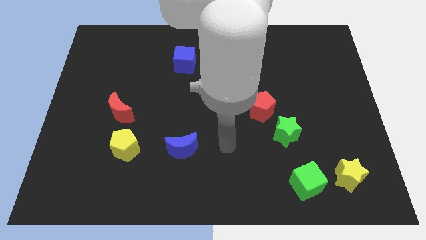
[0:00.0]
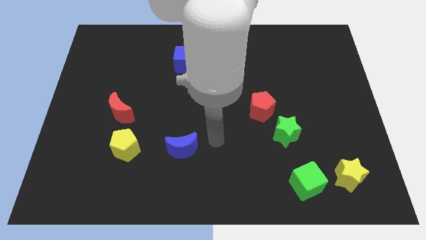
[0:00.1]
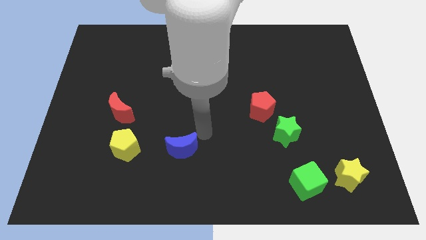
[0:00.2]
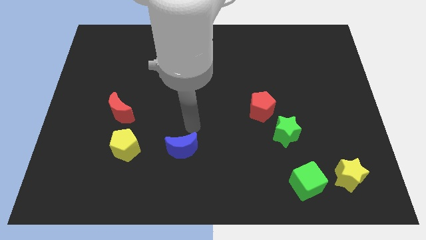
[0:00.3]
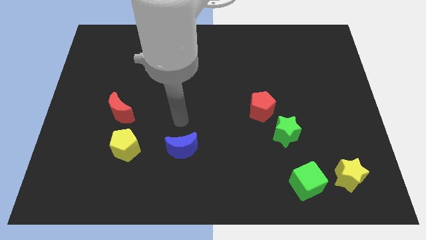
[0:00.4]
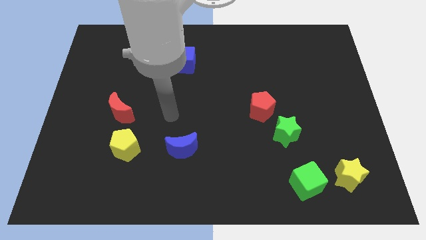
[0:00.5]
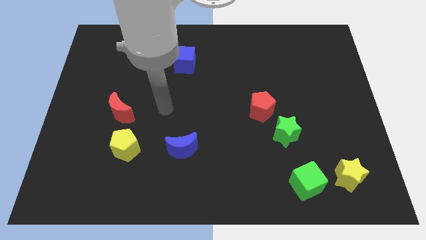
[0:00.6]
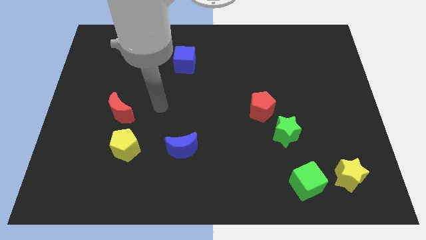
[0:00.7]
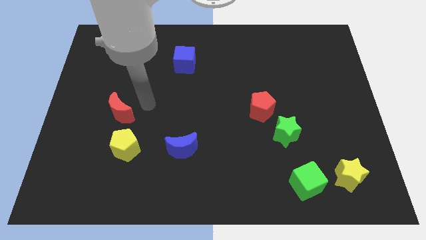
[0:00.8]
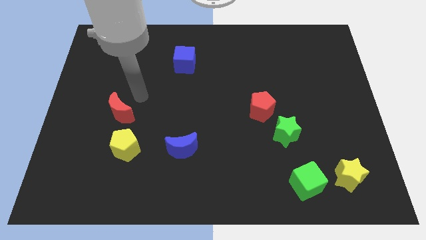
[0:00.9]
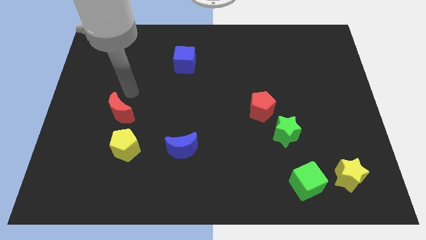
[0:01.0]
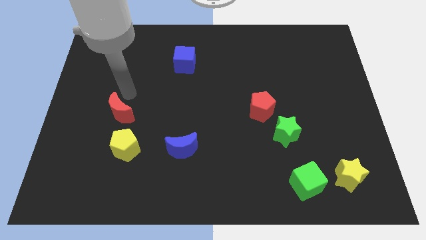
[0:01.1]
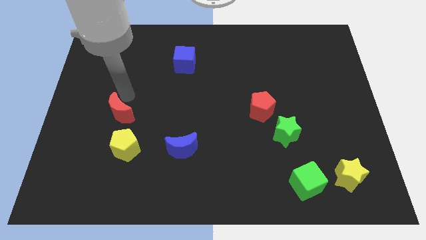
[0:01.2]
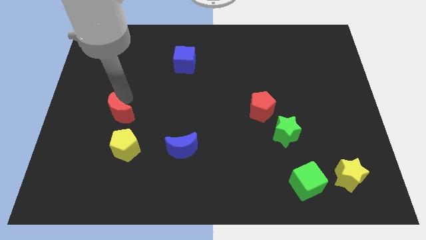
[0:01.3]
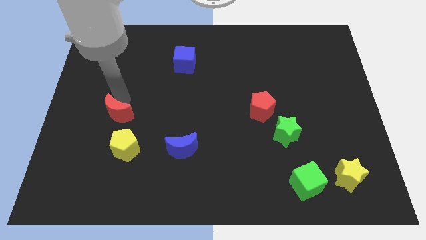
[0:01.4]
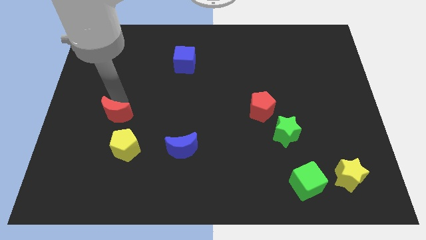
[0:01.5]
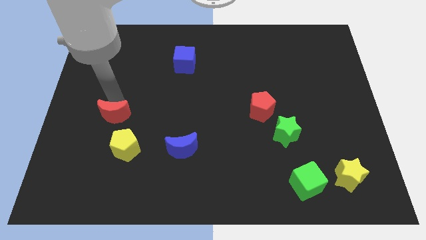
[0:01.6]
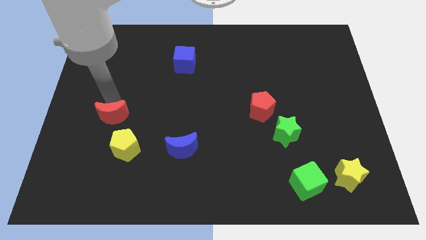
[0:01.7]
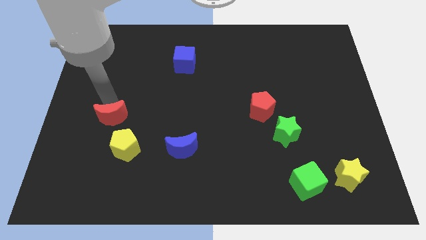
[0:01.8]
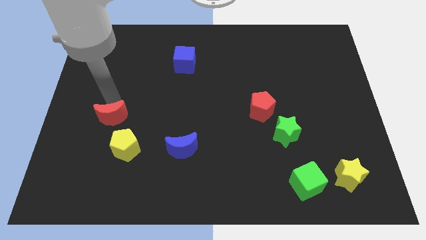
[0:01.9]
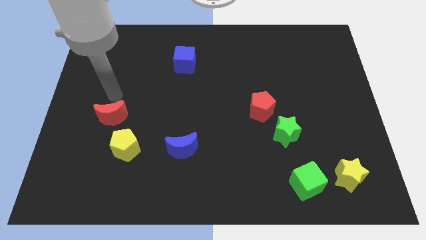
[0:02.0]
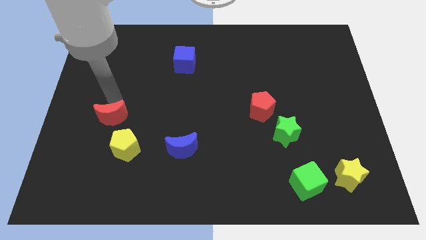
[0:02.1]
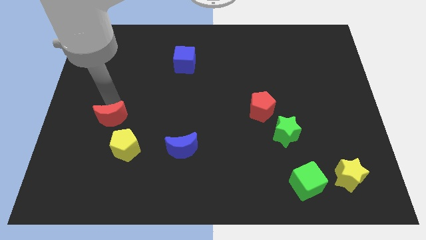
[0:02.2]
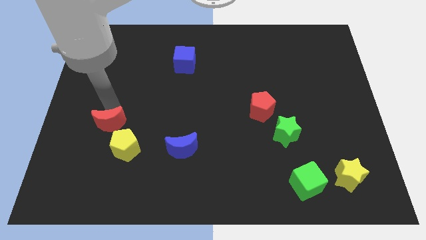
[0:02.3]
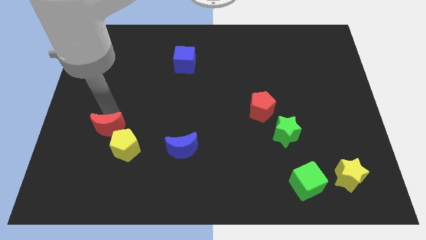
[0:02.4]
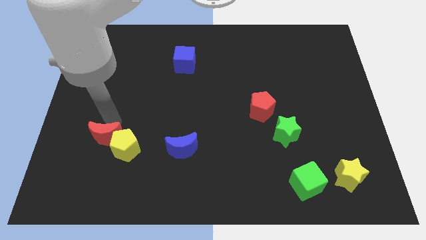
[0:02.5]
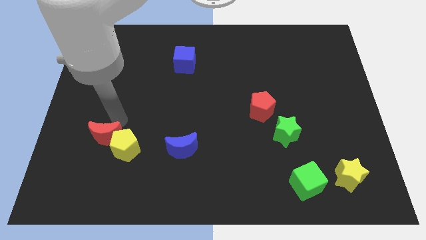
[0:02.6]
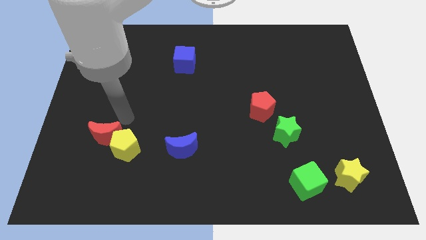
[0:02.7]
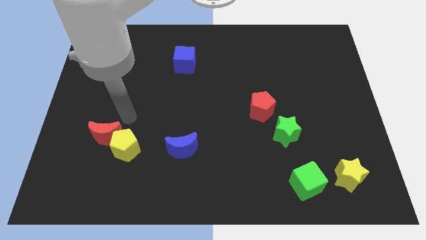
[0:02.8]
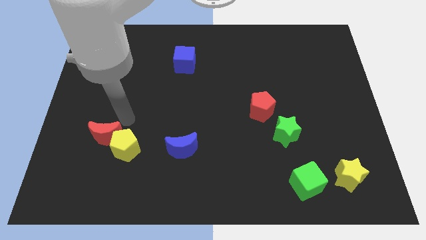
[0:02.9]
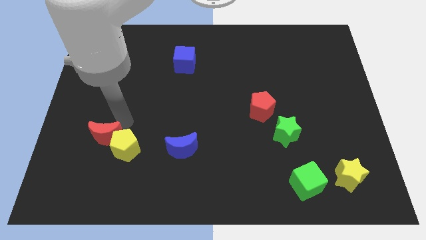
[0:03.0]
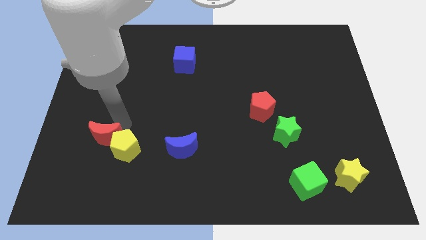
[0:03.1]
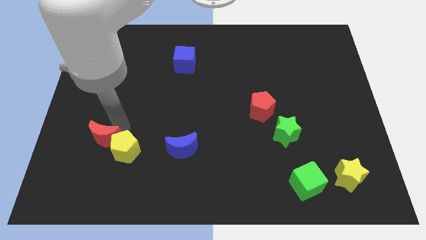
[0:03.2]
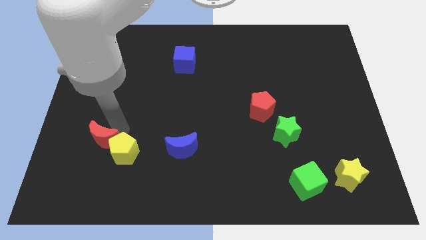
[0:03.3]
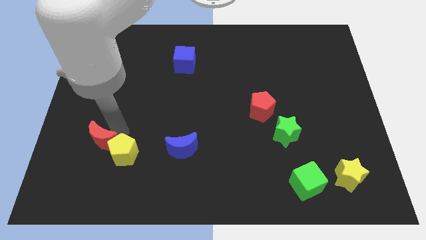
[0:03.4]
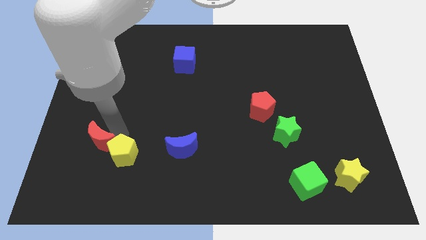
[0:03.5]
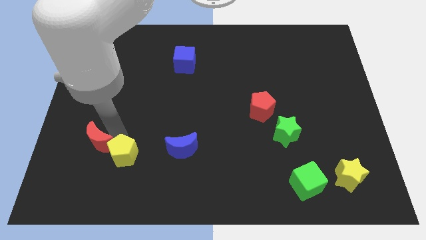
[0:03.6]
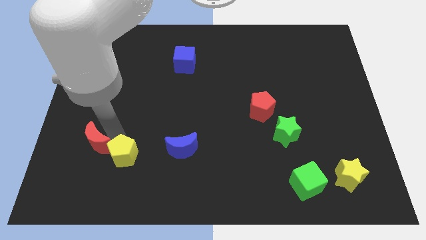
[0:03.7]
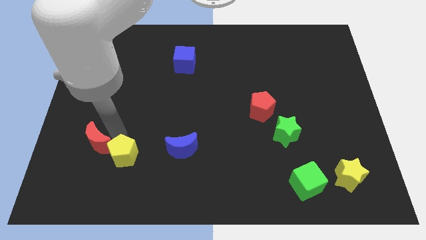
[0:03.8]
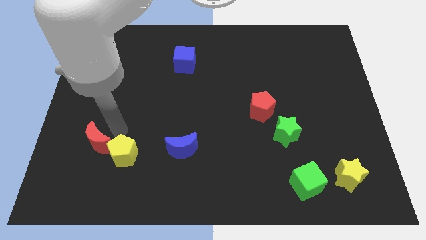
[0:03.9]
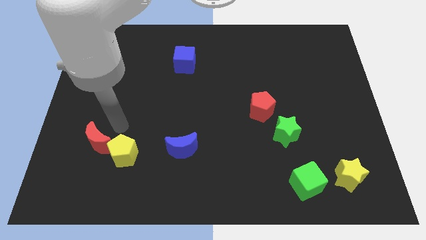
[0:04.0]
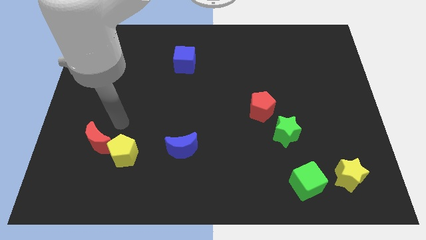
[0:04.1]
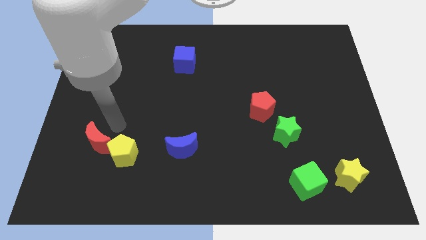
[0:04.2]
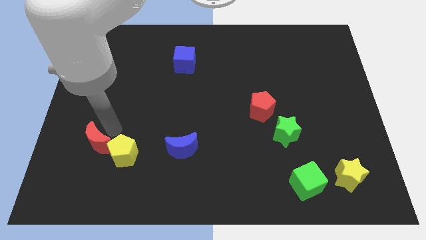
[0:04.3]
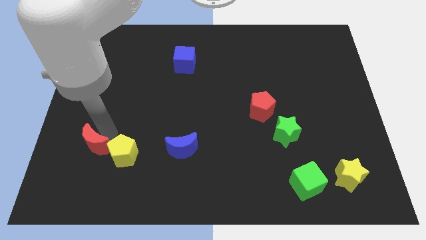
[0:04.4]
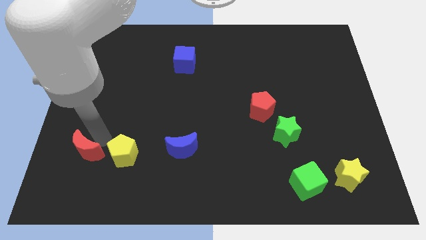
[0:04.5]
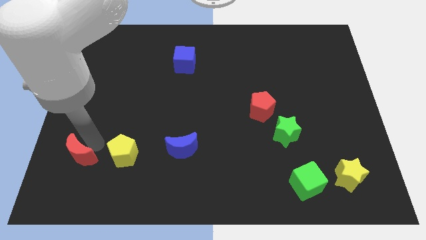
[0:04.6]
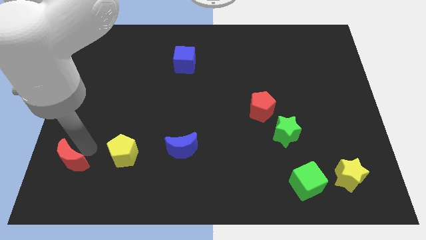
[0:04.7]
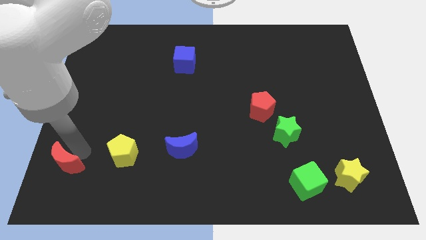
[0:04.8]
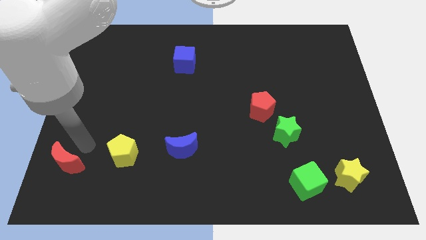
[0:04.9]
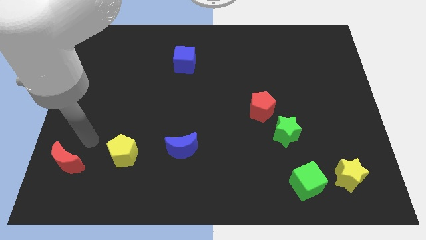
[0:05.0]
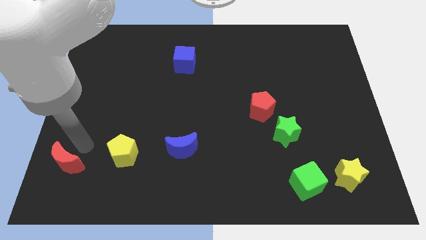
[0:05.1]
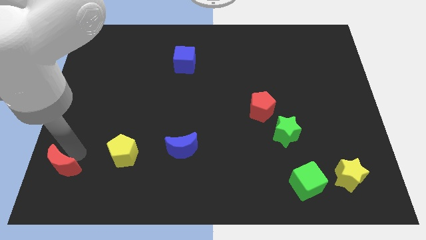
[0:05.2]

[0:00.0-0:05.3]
put the red moon to the bottom left

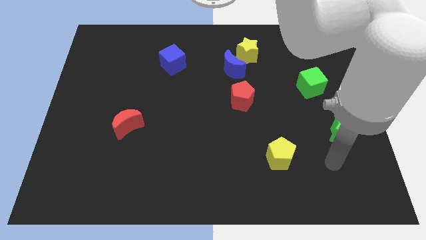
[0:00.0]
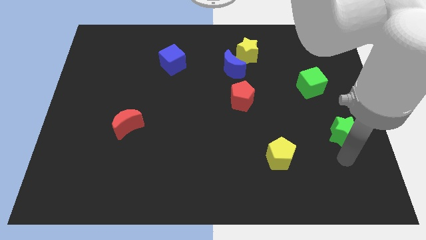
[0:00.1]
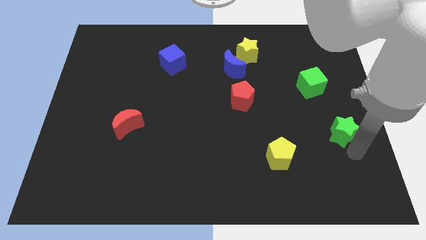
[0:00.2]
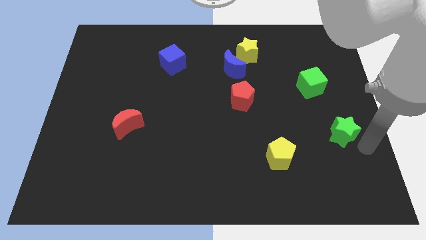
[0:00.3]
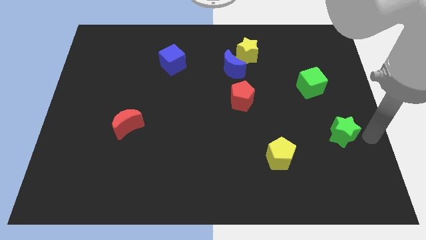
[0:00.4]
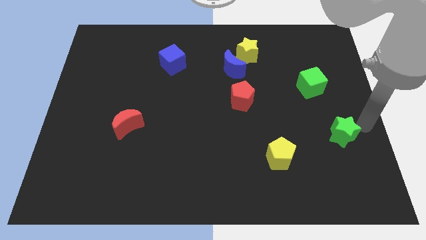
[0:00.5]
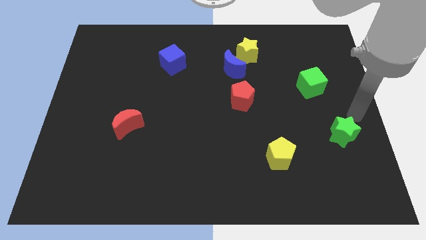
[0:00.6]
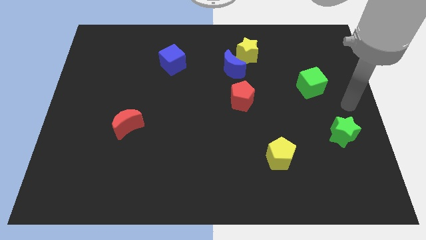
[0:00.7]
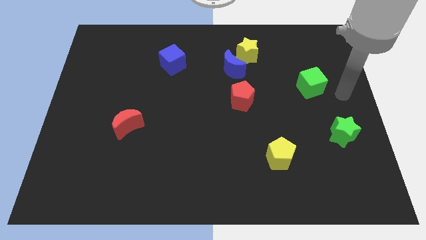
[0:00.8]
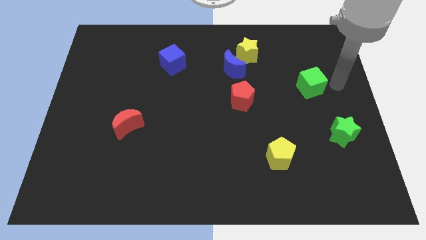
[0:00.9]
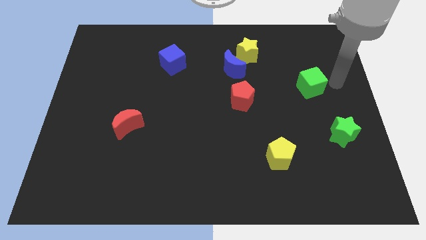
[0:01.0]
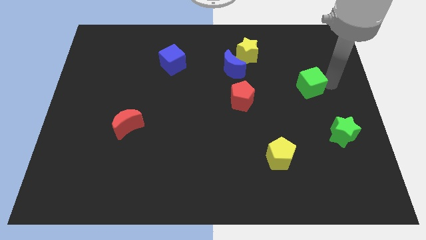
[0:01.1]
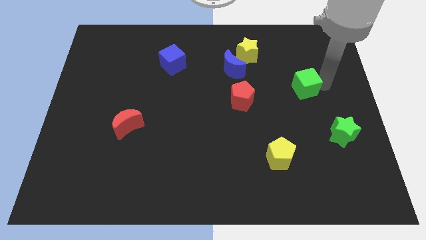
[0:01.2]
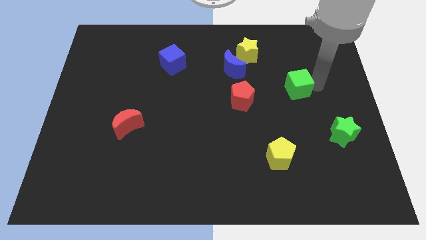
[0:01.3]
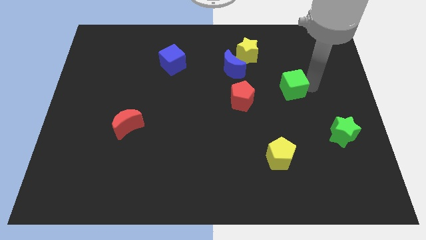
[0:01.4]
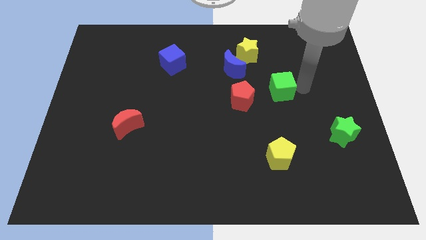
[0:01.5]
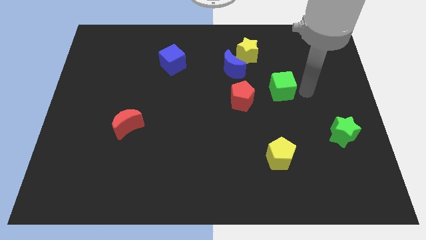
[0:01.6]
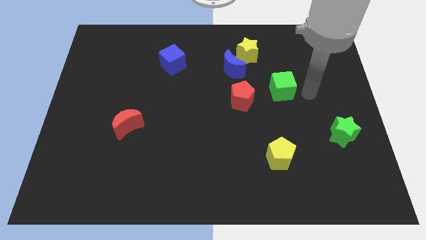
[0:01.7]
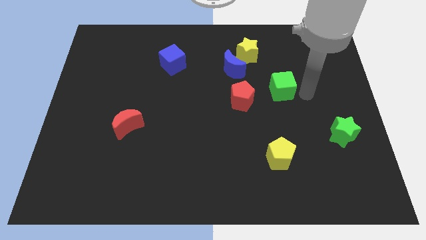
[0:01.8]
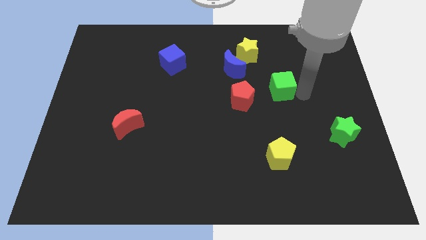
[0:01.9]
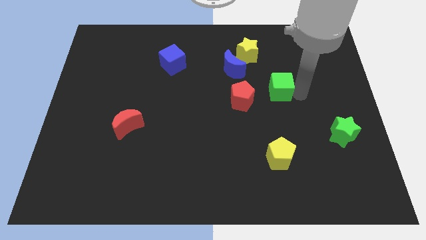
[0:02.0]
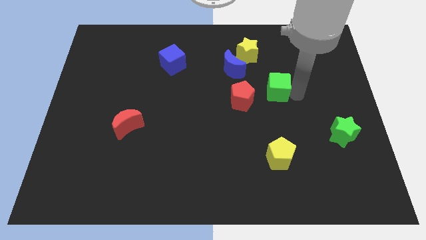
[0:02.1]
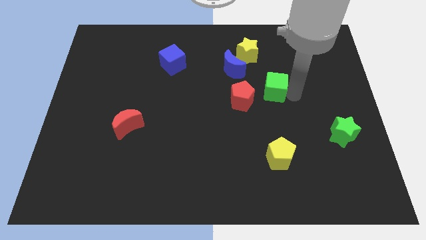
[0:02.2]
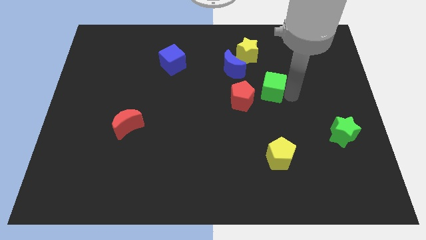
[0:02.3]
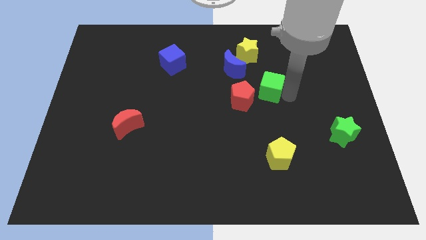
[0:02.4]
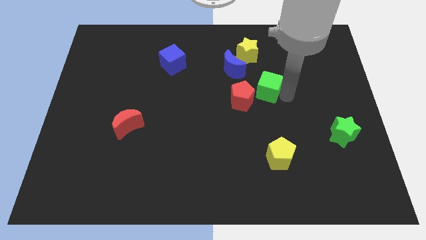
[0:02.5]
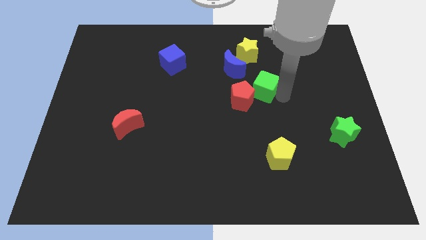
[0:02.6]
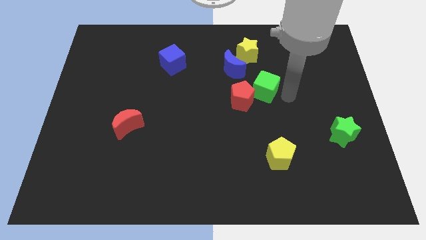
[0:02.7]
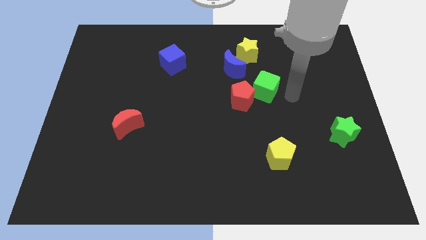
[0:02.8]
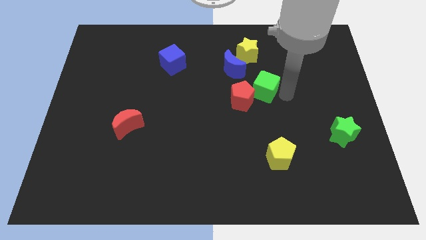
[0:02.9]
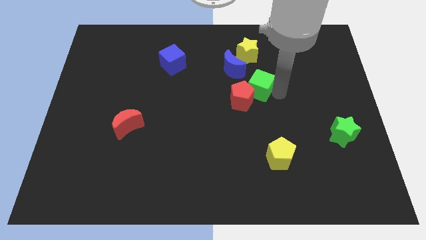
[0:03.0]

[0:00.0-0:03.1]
put the green cube to the middle of the board
